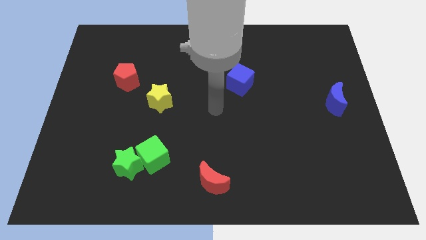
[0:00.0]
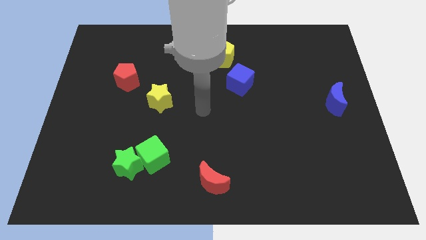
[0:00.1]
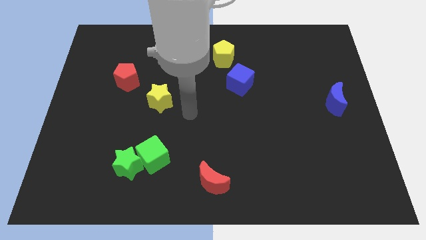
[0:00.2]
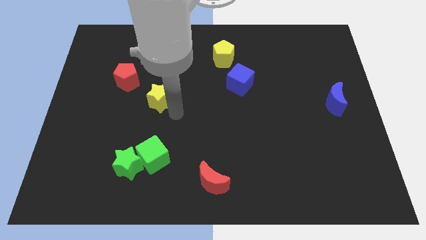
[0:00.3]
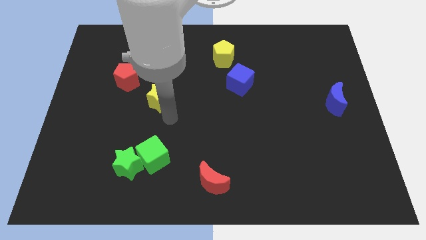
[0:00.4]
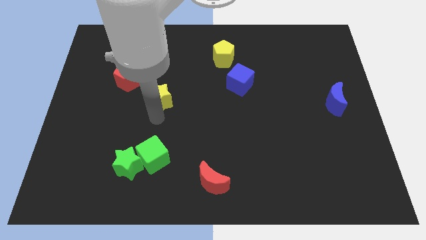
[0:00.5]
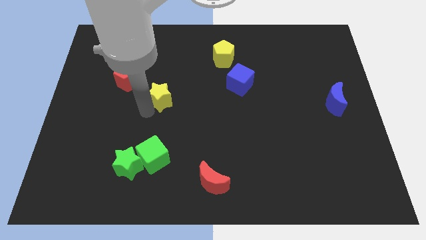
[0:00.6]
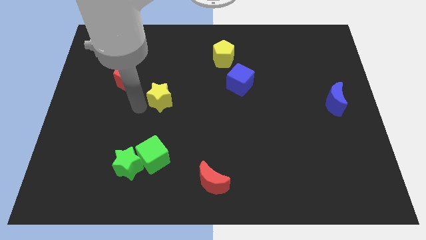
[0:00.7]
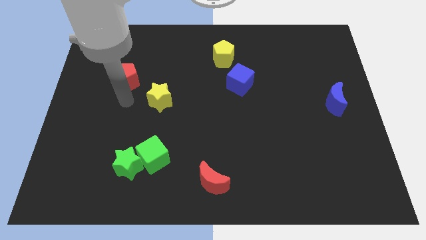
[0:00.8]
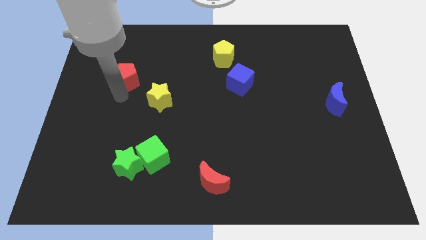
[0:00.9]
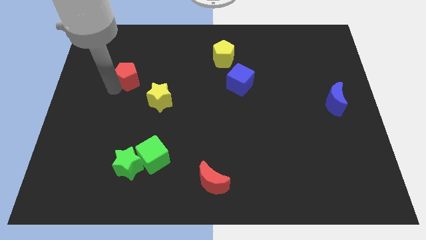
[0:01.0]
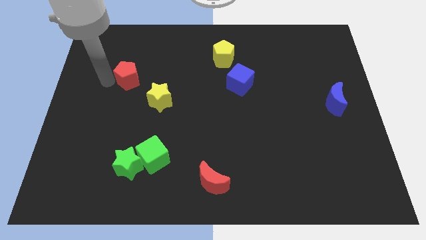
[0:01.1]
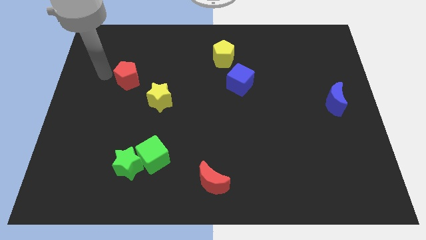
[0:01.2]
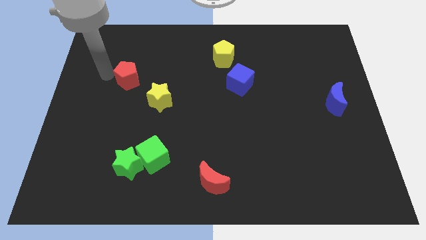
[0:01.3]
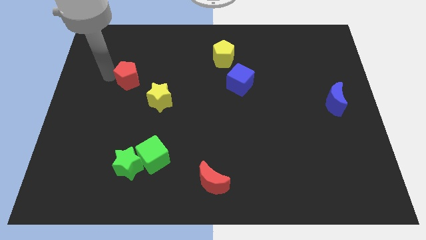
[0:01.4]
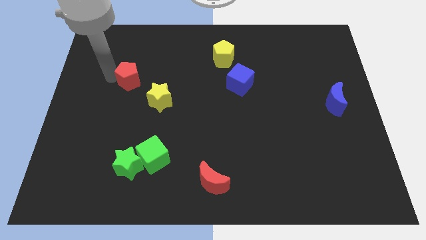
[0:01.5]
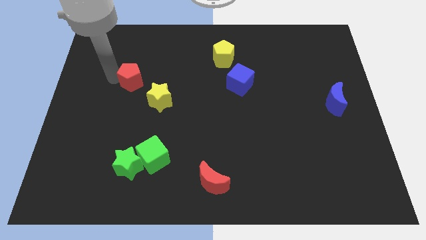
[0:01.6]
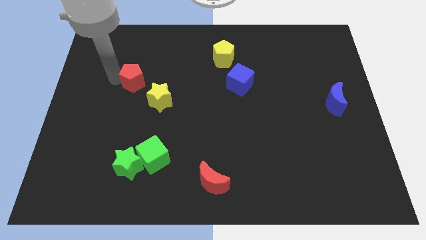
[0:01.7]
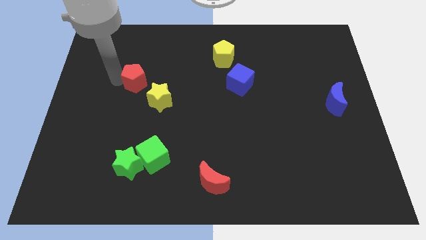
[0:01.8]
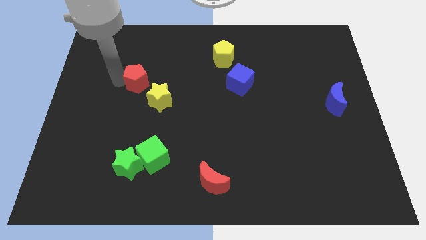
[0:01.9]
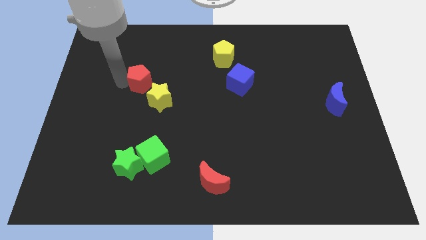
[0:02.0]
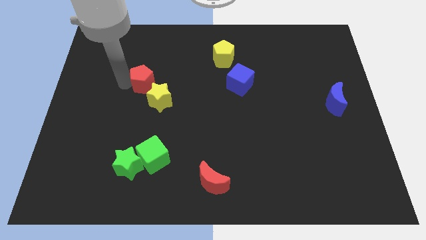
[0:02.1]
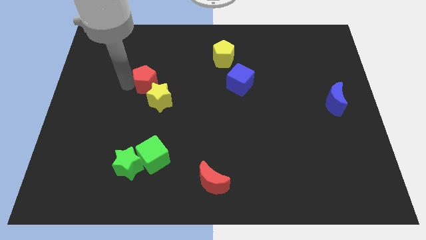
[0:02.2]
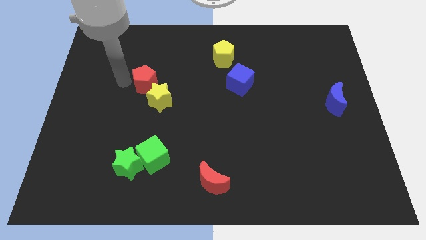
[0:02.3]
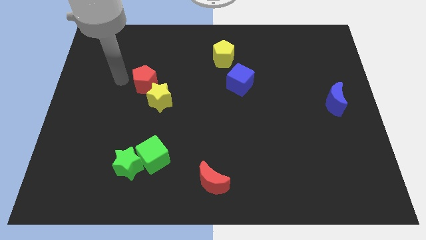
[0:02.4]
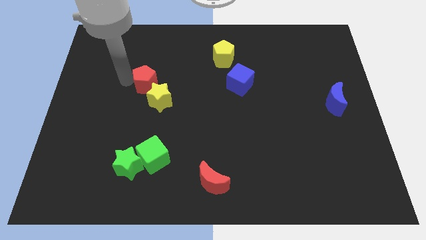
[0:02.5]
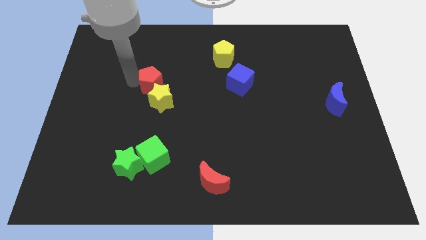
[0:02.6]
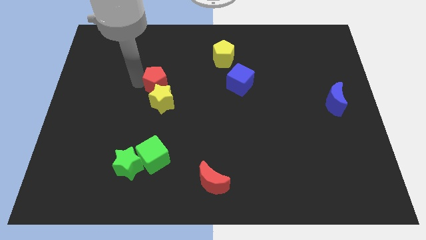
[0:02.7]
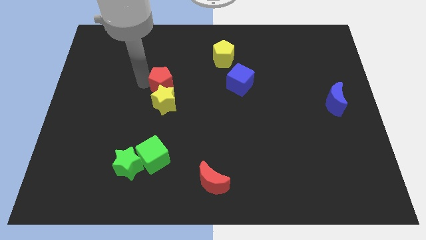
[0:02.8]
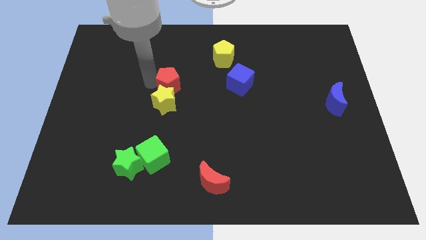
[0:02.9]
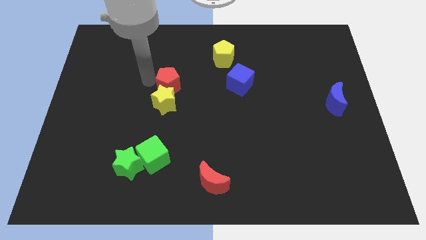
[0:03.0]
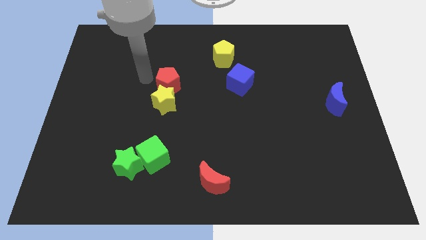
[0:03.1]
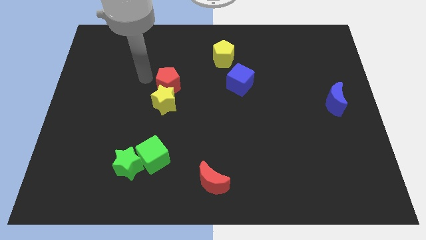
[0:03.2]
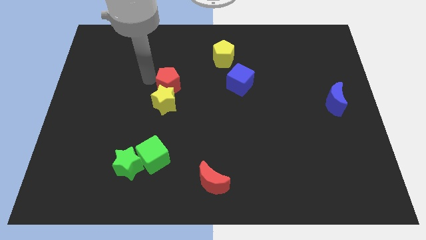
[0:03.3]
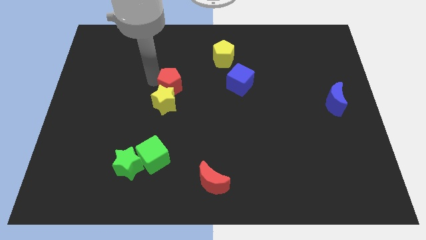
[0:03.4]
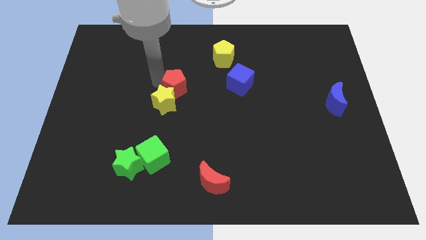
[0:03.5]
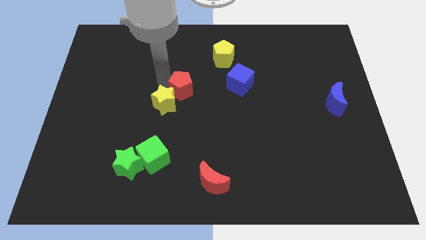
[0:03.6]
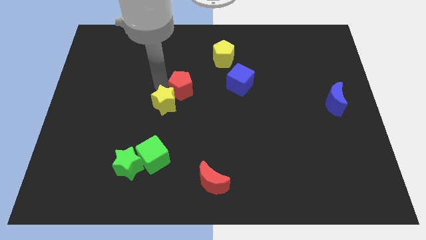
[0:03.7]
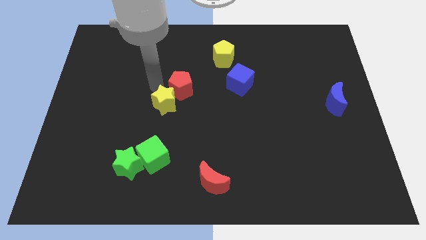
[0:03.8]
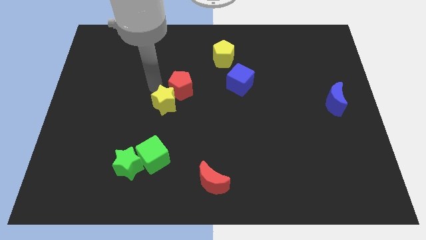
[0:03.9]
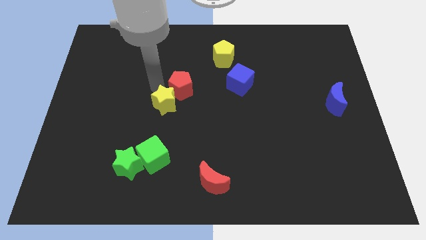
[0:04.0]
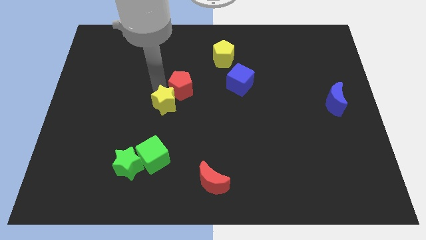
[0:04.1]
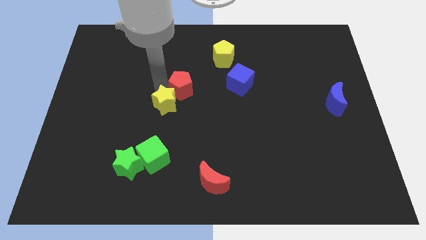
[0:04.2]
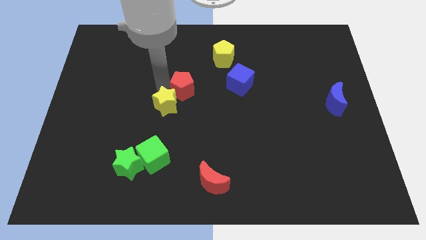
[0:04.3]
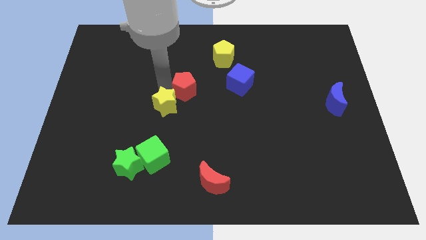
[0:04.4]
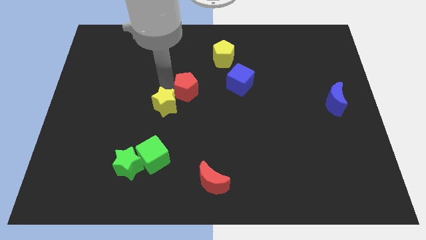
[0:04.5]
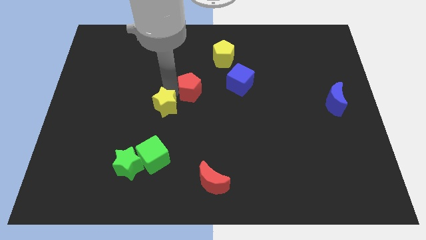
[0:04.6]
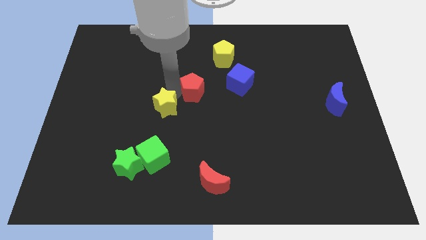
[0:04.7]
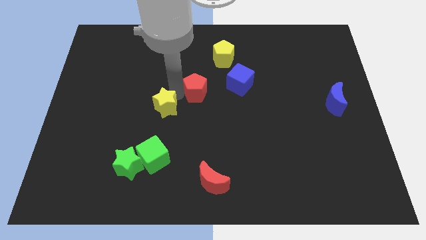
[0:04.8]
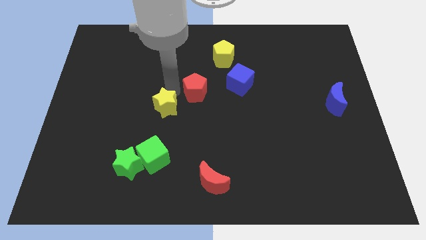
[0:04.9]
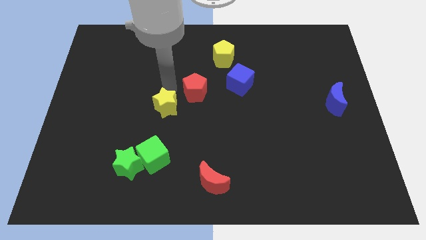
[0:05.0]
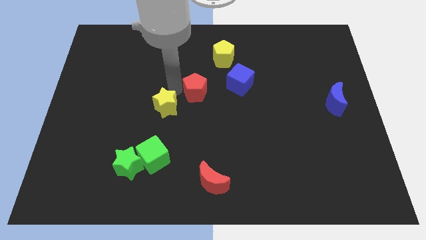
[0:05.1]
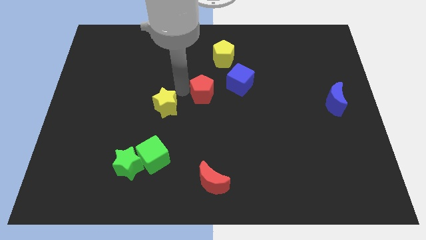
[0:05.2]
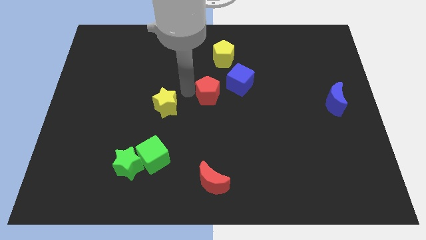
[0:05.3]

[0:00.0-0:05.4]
move the red pentagon below the yellow pentagon

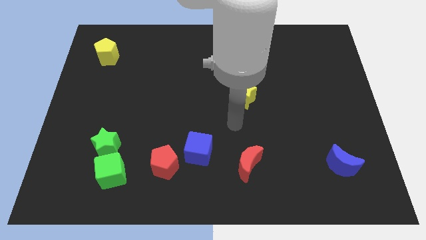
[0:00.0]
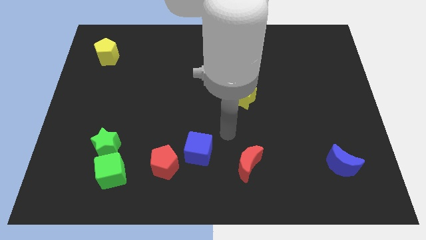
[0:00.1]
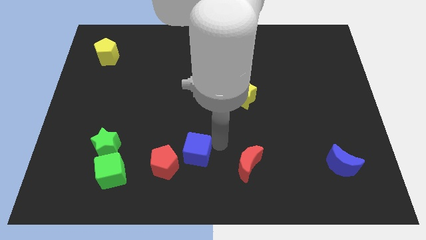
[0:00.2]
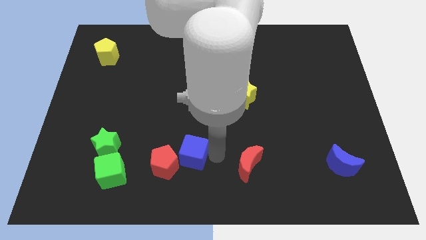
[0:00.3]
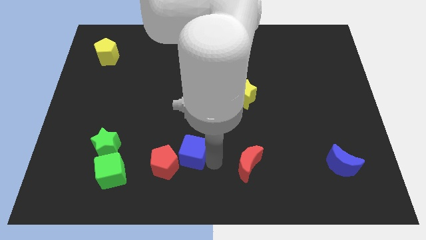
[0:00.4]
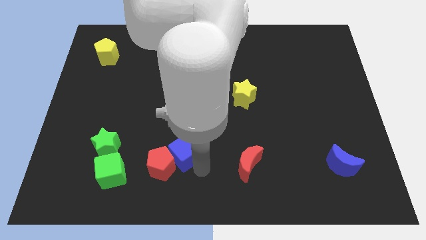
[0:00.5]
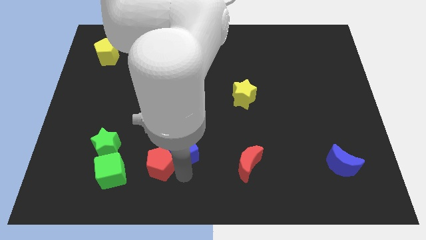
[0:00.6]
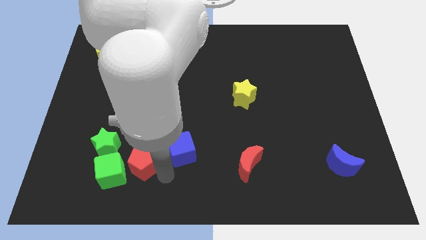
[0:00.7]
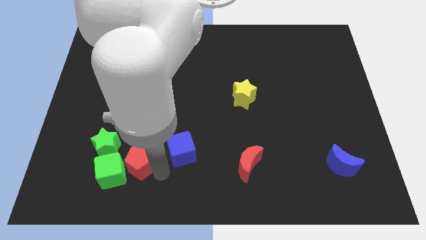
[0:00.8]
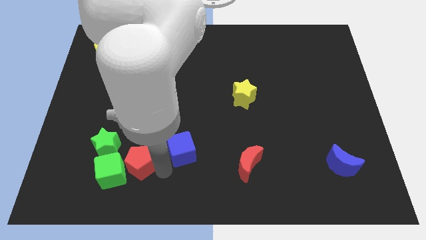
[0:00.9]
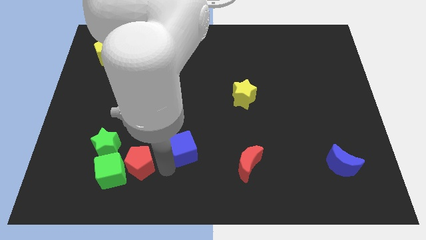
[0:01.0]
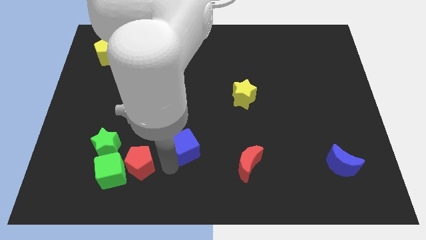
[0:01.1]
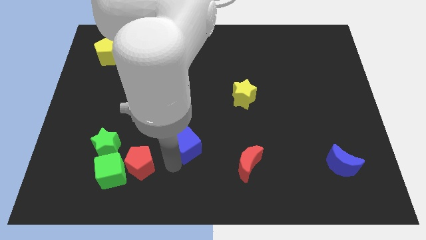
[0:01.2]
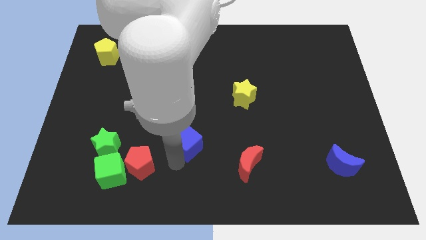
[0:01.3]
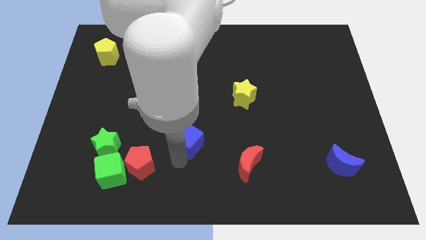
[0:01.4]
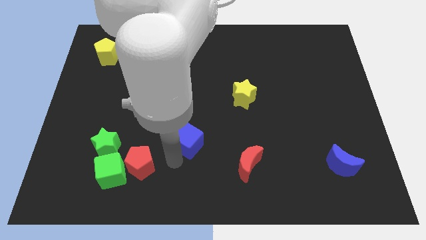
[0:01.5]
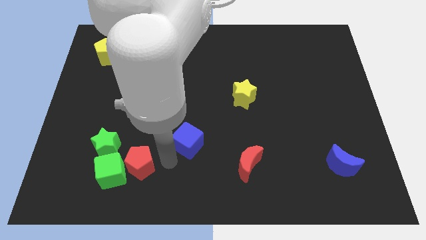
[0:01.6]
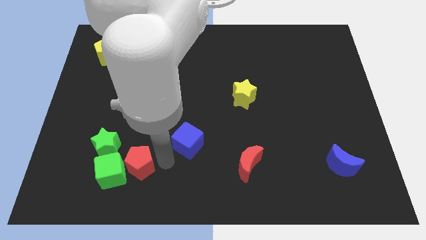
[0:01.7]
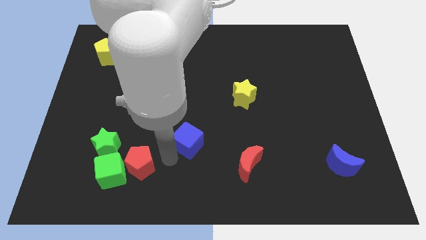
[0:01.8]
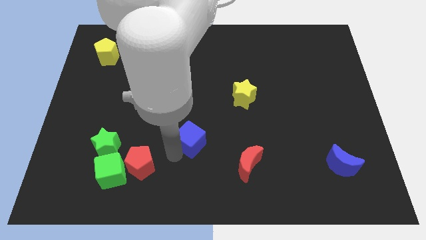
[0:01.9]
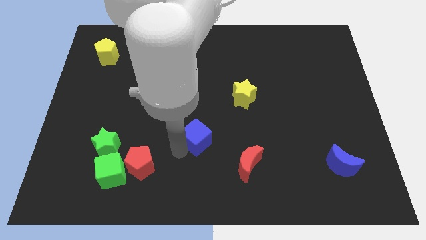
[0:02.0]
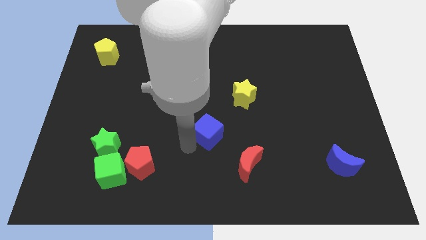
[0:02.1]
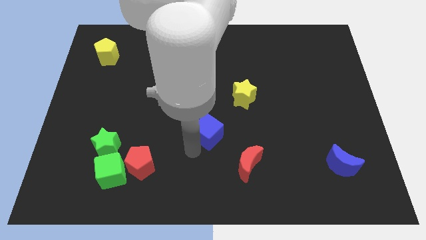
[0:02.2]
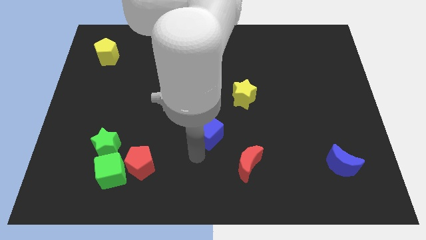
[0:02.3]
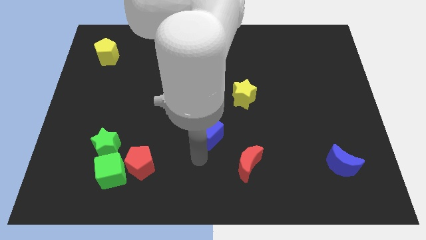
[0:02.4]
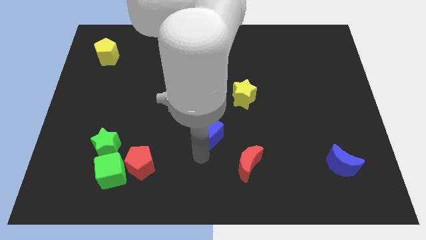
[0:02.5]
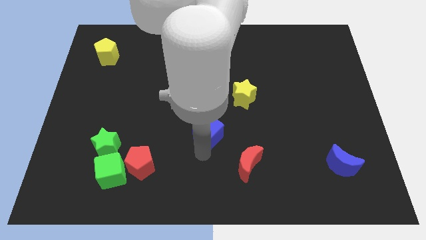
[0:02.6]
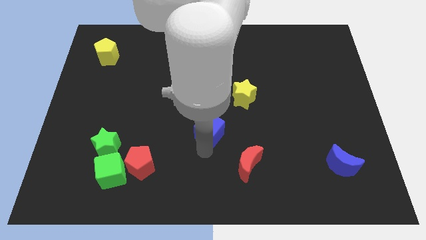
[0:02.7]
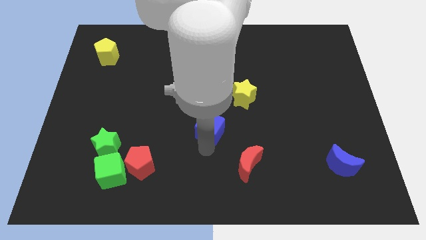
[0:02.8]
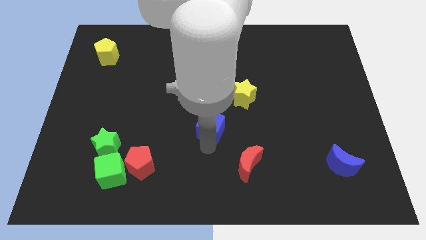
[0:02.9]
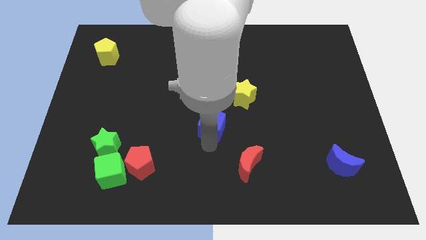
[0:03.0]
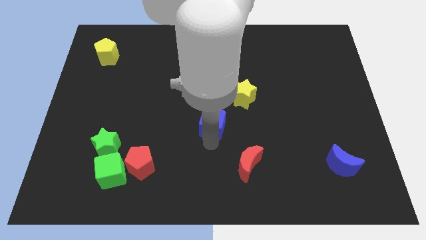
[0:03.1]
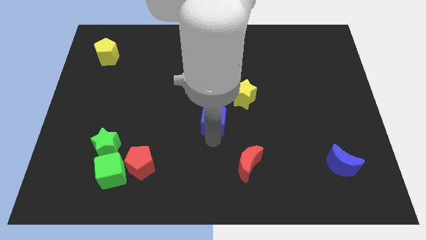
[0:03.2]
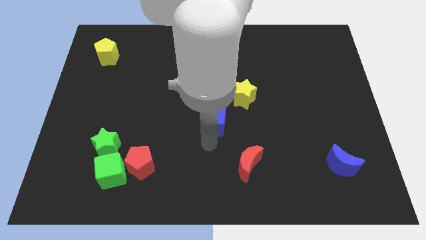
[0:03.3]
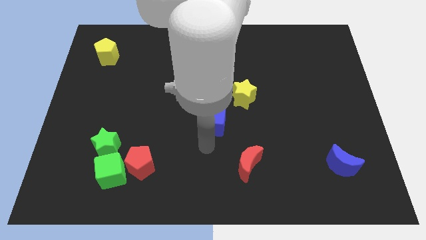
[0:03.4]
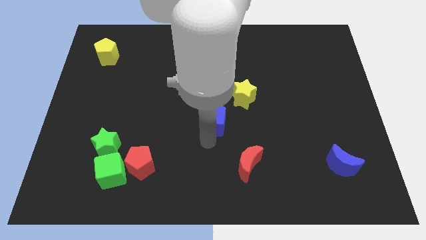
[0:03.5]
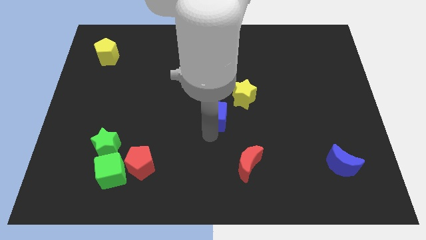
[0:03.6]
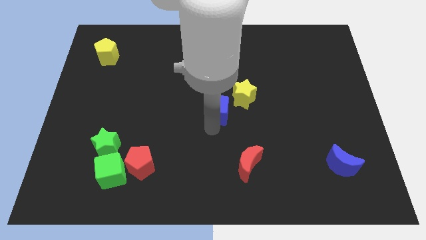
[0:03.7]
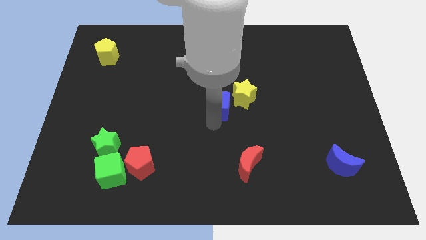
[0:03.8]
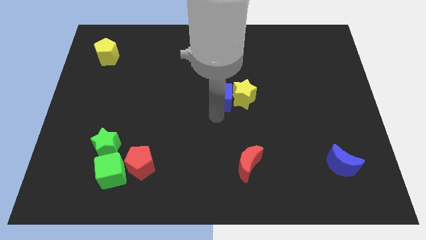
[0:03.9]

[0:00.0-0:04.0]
push the blue cube to the top left of the yellow star
